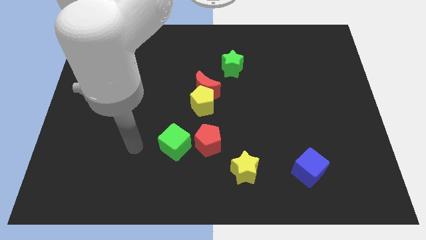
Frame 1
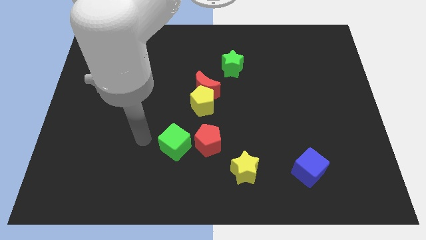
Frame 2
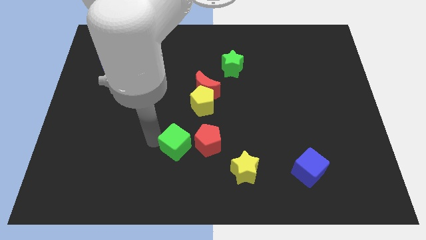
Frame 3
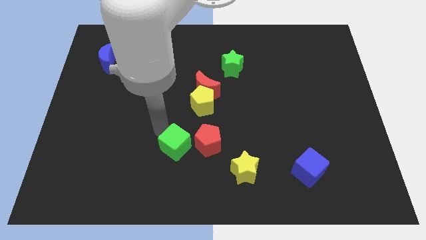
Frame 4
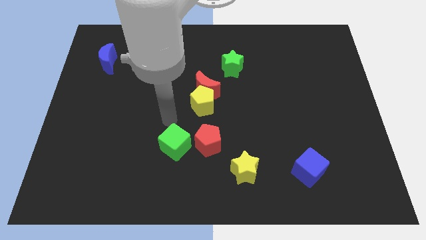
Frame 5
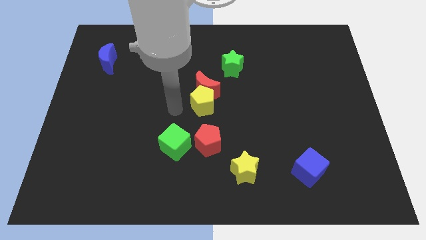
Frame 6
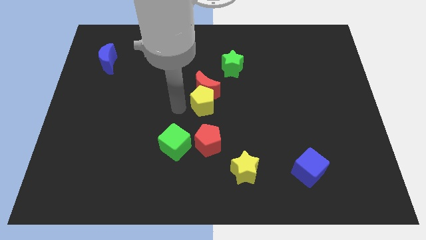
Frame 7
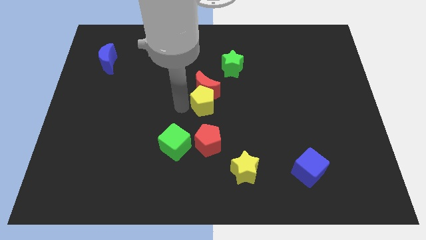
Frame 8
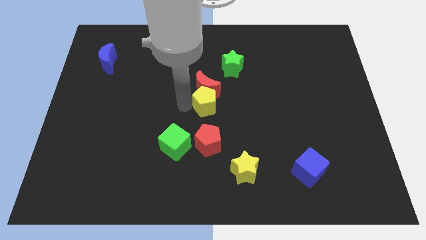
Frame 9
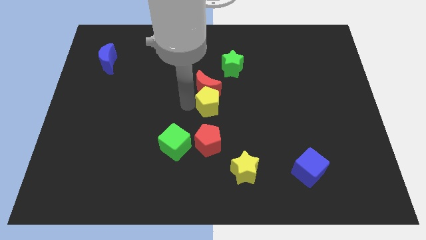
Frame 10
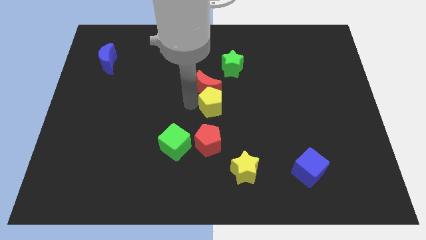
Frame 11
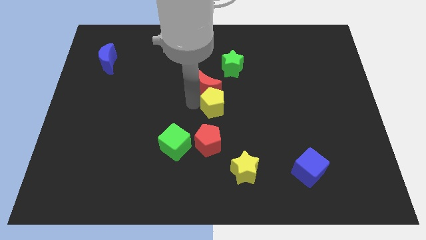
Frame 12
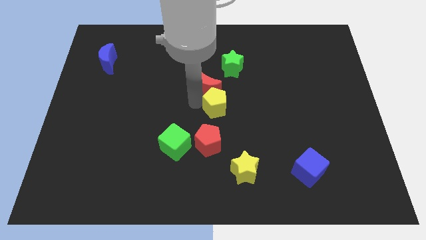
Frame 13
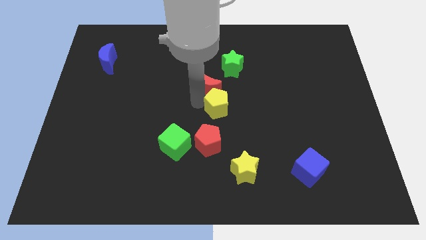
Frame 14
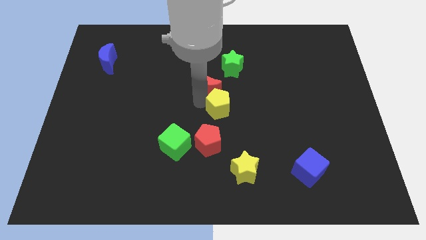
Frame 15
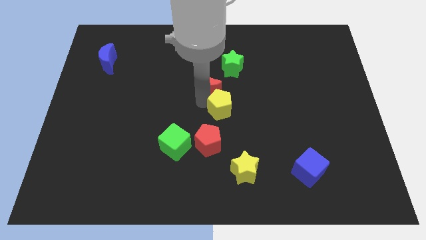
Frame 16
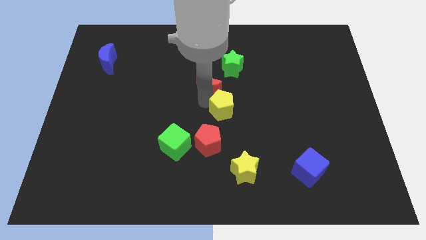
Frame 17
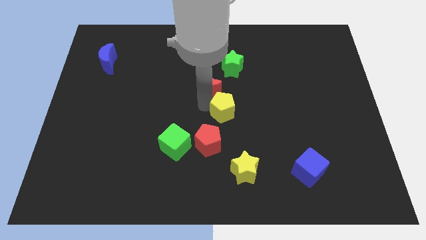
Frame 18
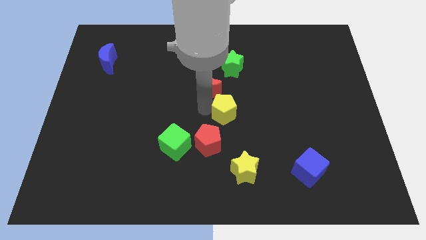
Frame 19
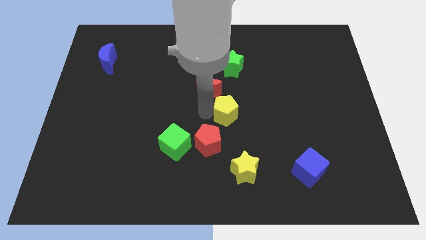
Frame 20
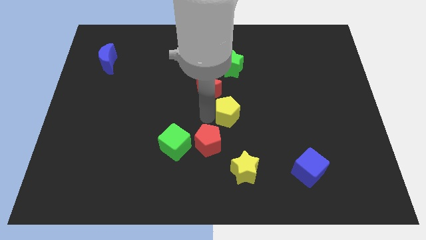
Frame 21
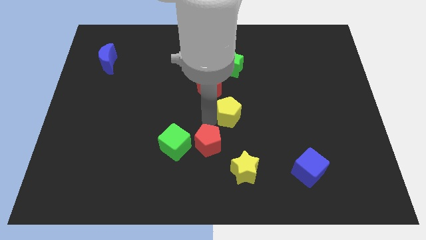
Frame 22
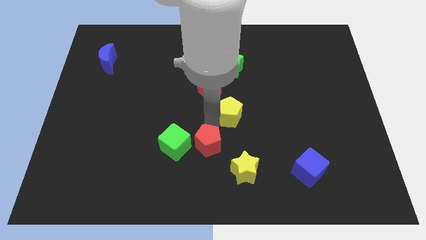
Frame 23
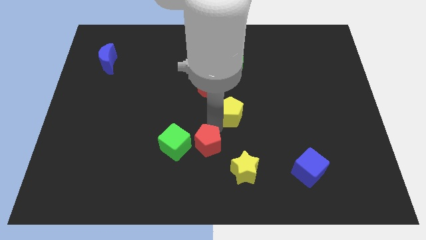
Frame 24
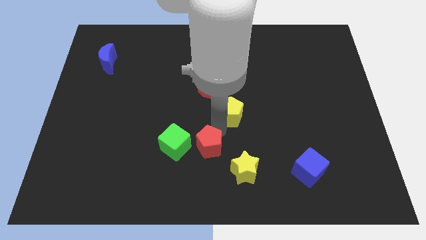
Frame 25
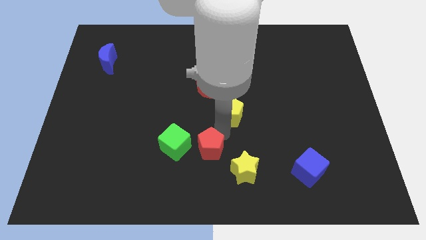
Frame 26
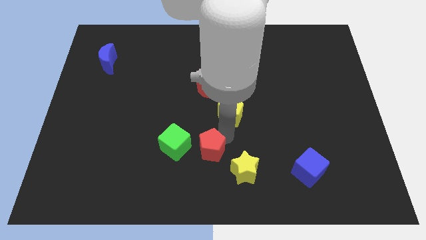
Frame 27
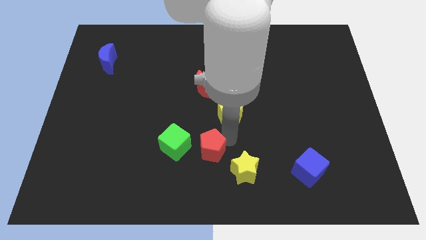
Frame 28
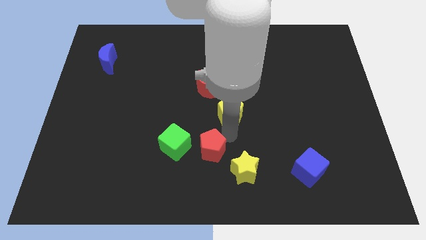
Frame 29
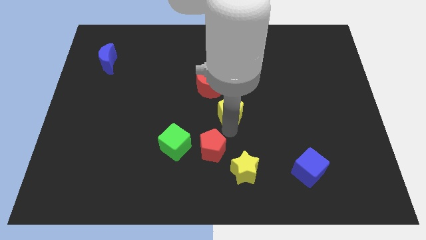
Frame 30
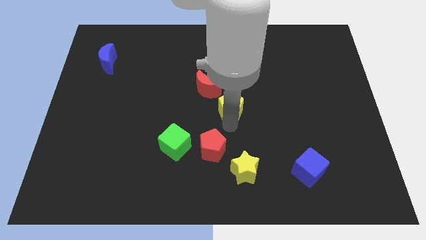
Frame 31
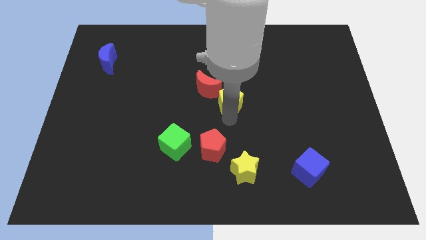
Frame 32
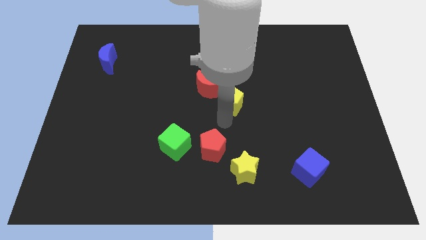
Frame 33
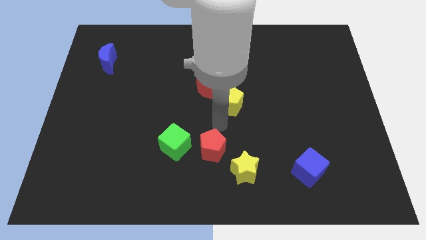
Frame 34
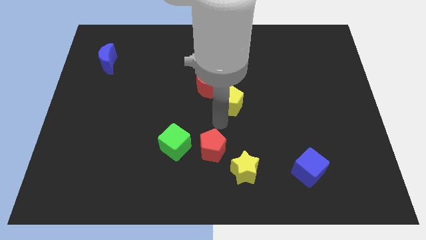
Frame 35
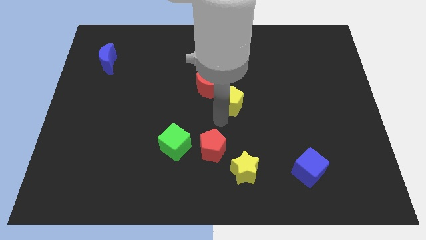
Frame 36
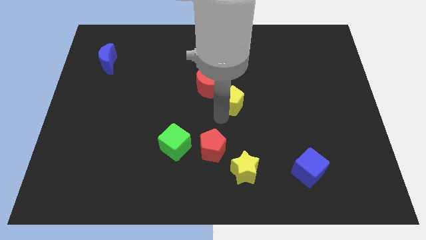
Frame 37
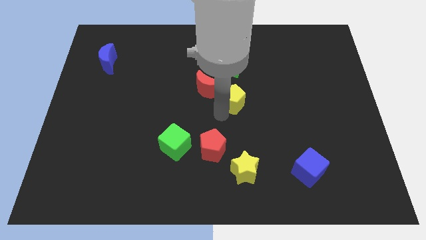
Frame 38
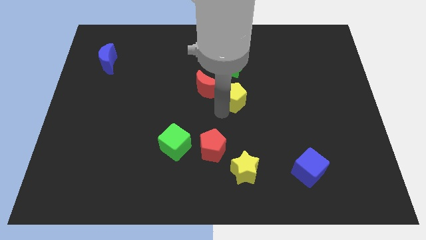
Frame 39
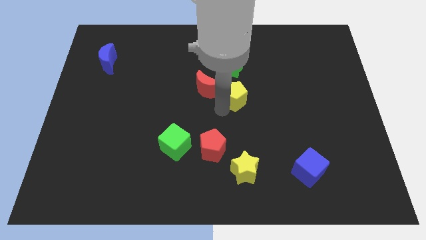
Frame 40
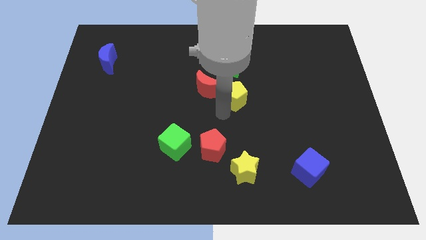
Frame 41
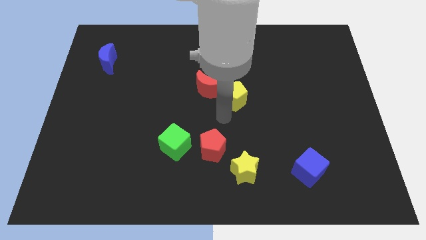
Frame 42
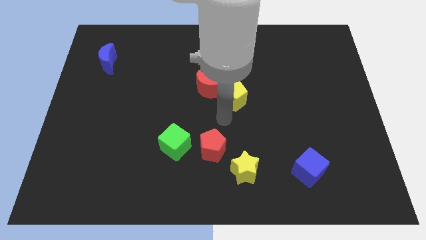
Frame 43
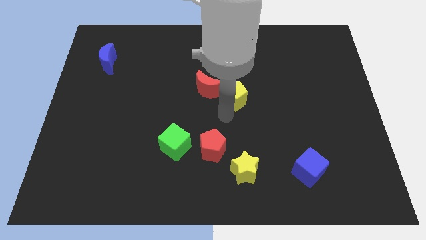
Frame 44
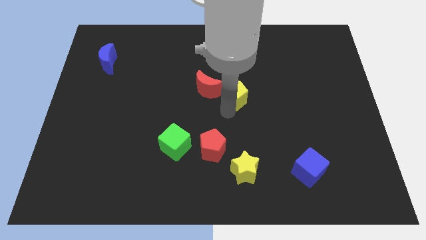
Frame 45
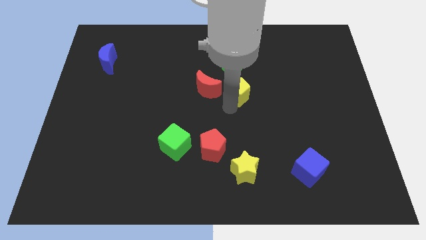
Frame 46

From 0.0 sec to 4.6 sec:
push the yellow pentagon diagonally up and to the right a little bit

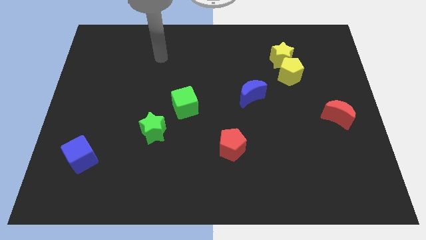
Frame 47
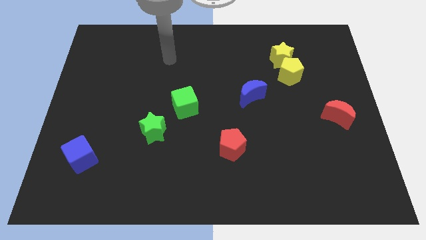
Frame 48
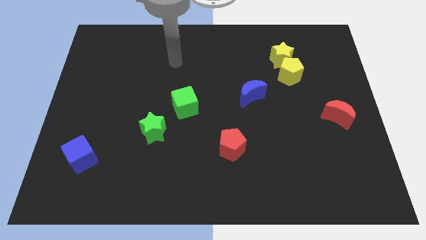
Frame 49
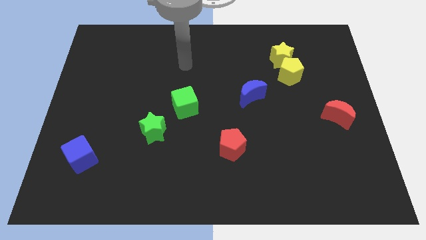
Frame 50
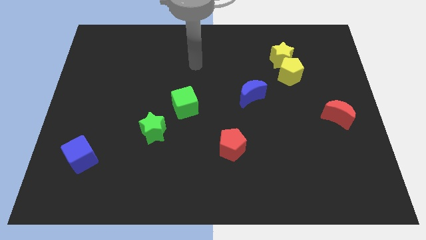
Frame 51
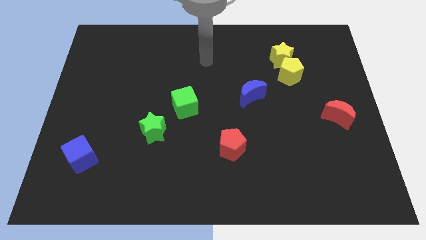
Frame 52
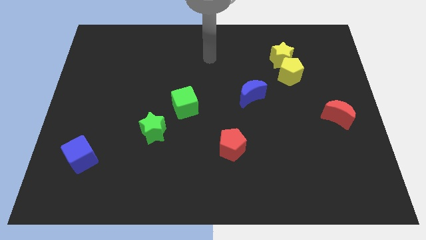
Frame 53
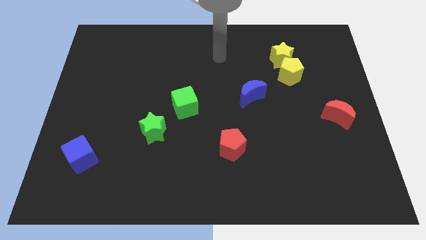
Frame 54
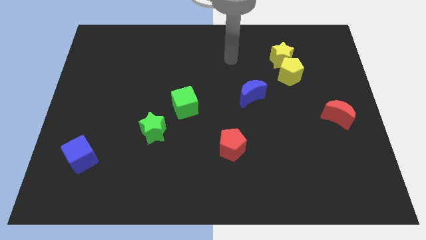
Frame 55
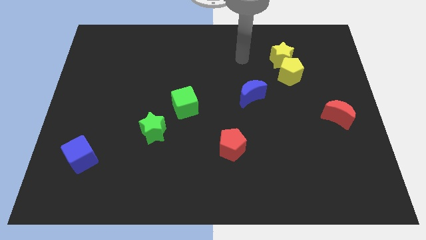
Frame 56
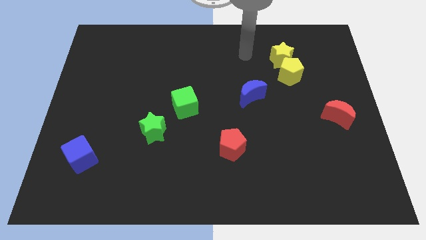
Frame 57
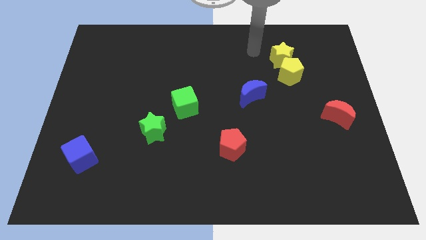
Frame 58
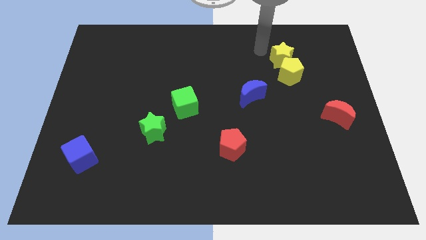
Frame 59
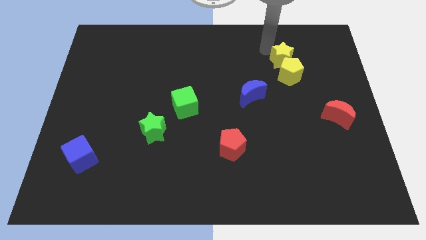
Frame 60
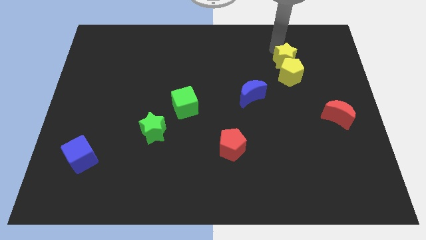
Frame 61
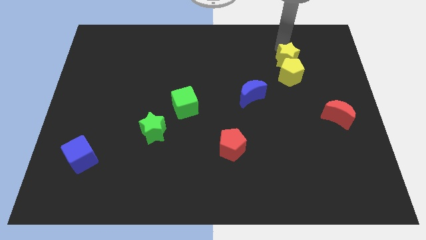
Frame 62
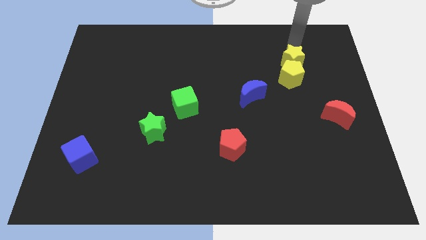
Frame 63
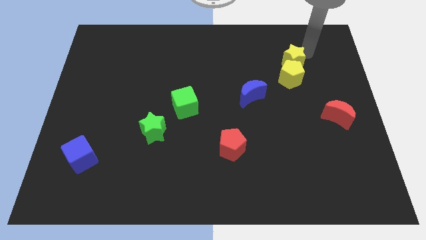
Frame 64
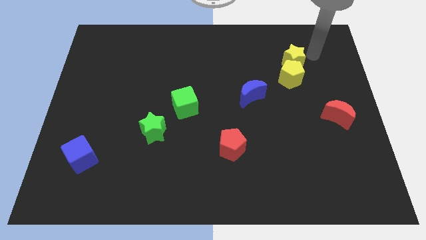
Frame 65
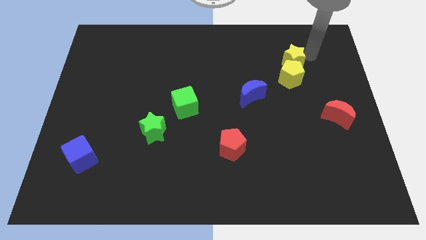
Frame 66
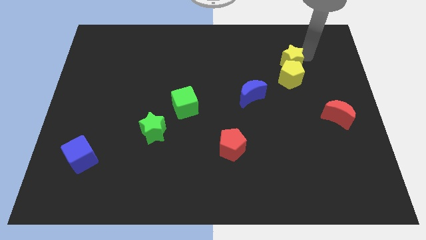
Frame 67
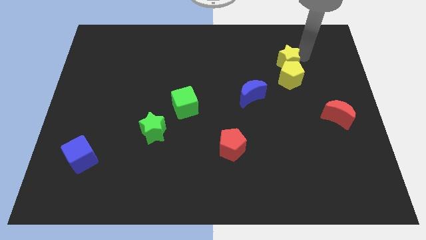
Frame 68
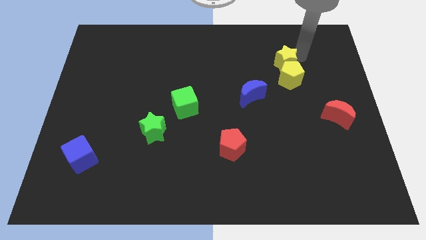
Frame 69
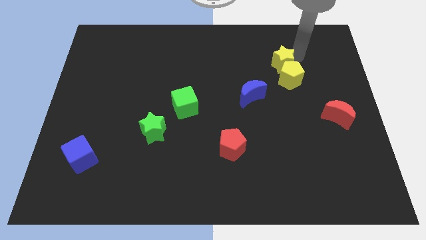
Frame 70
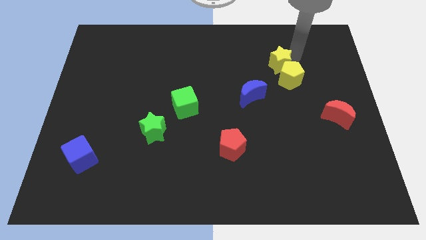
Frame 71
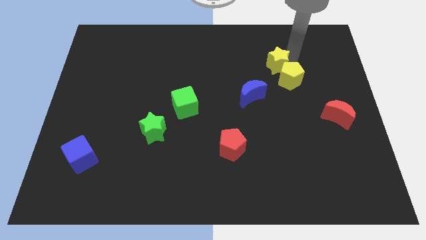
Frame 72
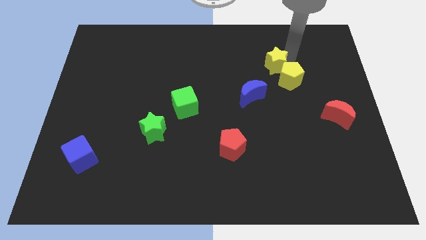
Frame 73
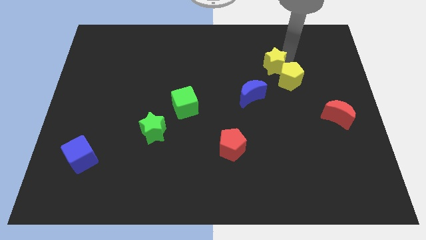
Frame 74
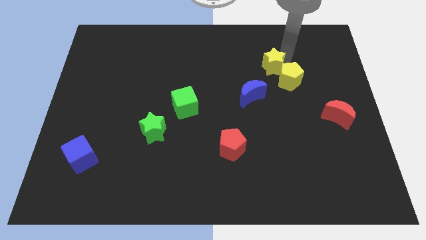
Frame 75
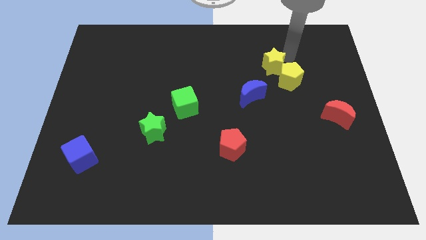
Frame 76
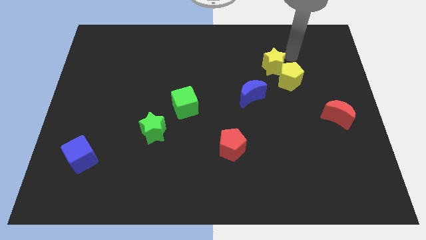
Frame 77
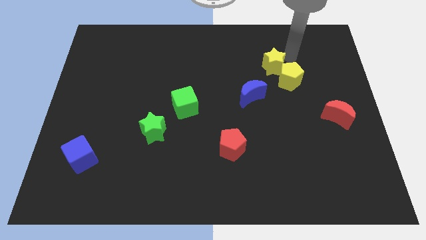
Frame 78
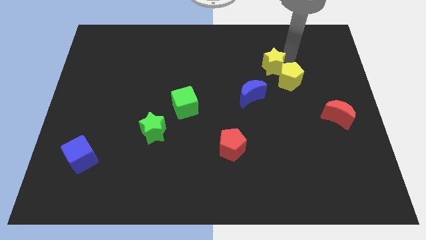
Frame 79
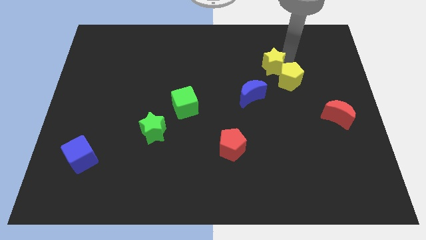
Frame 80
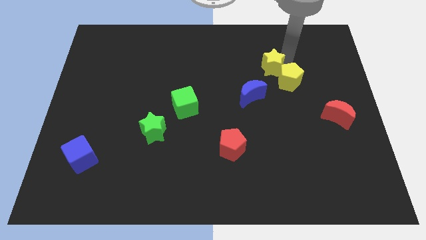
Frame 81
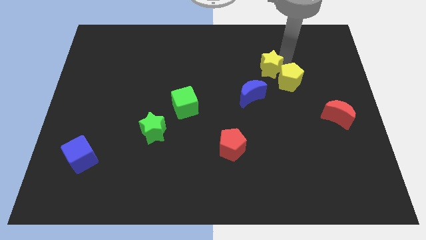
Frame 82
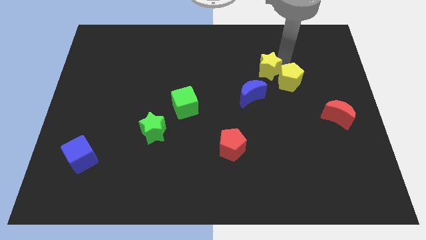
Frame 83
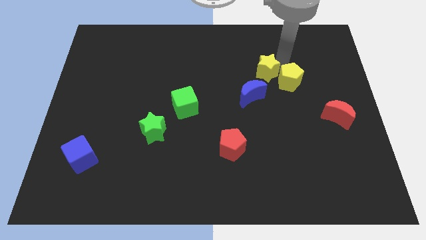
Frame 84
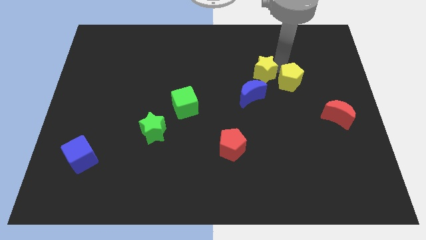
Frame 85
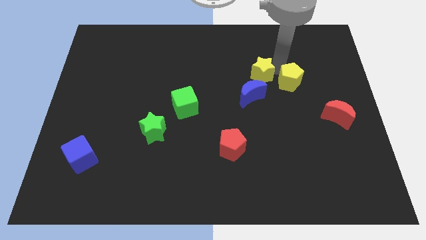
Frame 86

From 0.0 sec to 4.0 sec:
move the yellow star diagonally downwards and left a little
